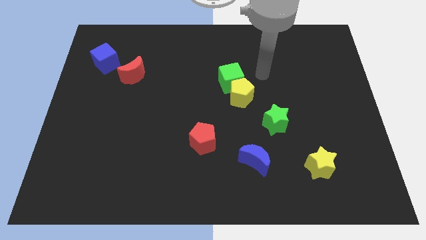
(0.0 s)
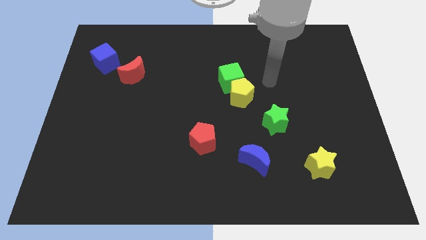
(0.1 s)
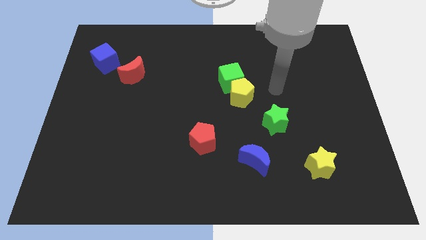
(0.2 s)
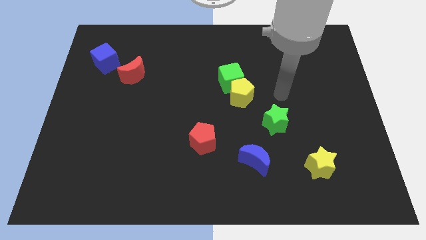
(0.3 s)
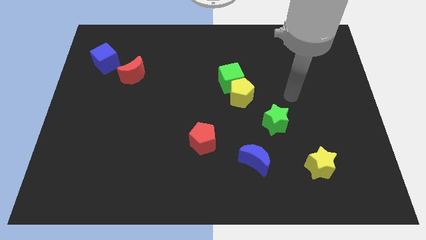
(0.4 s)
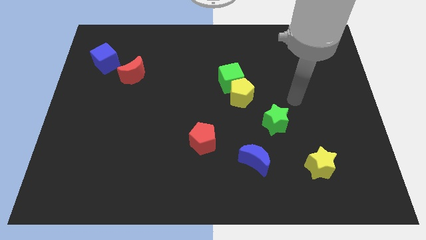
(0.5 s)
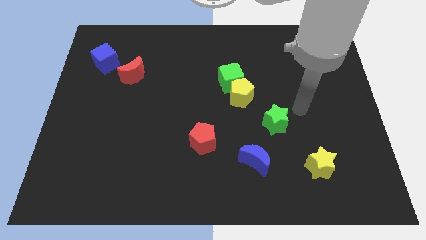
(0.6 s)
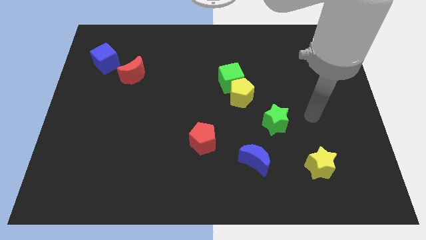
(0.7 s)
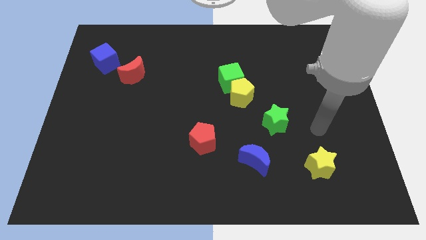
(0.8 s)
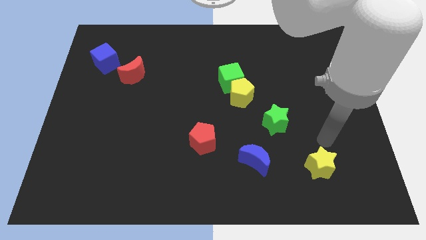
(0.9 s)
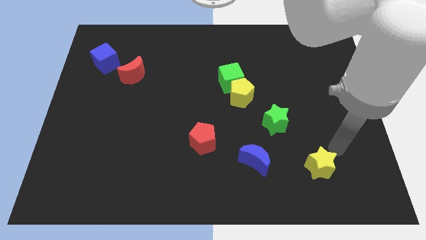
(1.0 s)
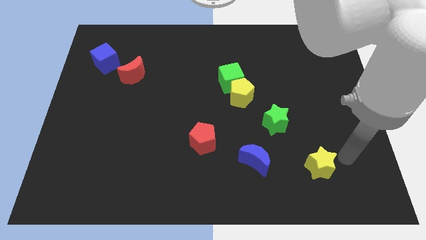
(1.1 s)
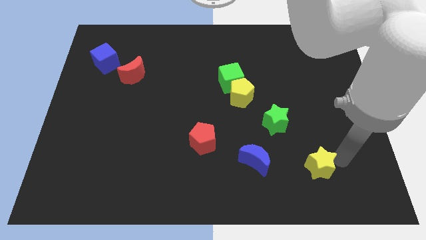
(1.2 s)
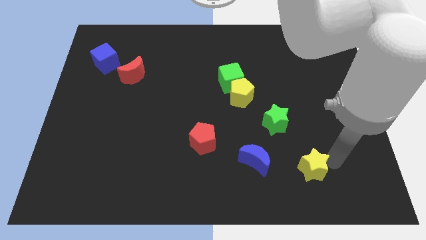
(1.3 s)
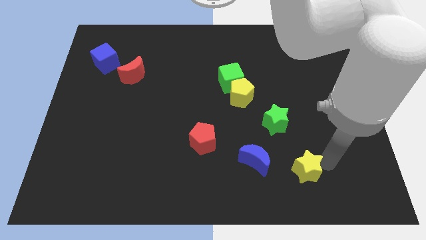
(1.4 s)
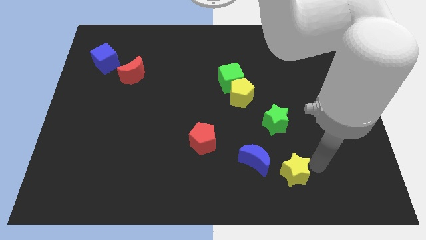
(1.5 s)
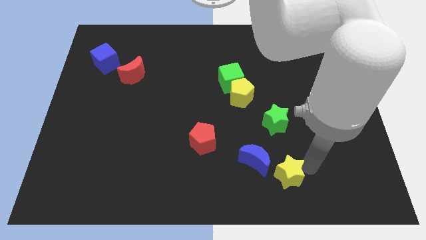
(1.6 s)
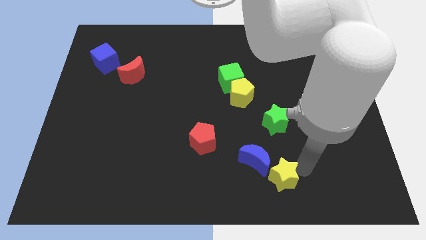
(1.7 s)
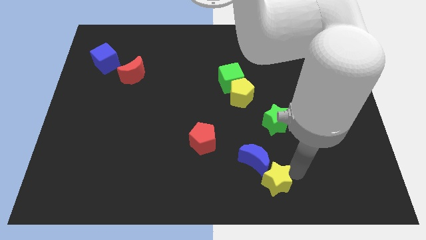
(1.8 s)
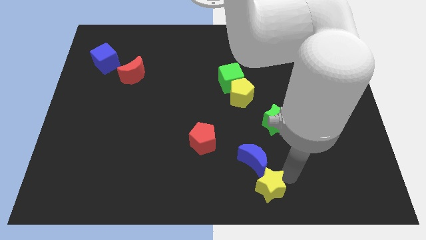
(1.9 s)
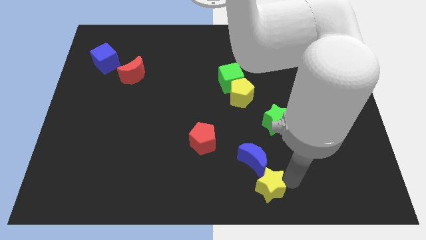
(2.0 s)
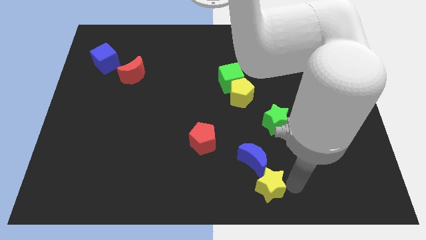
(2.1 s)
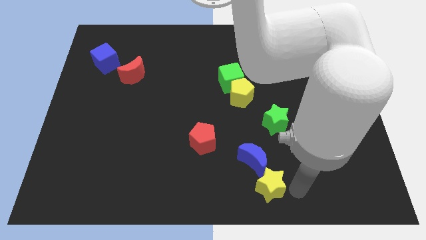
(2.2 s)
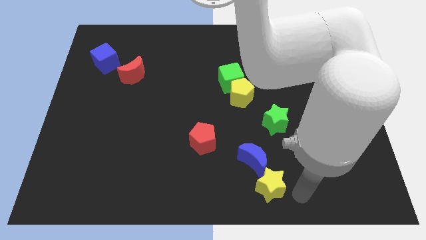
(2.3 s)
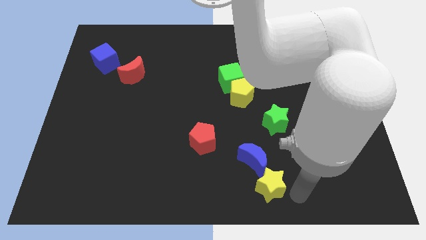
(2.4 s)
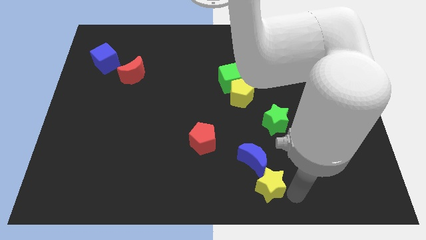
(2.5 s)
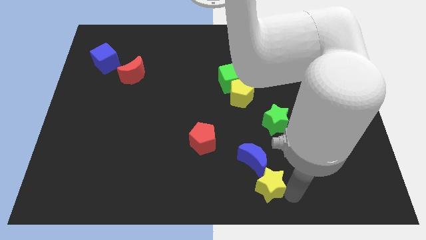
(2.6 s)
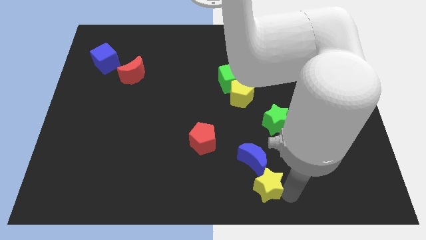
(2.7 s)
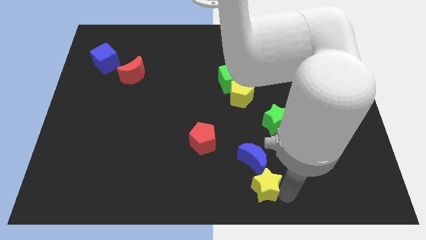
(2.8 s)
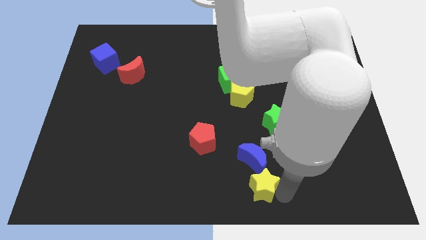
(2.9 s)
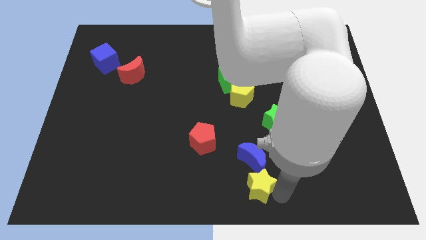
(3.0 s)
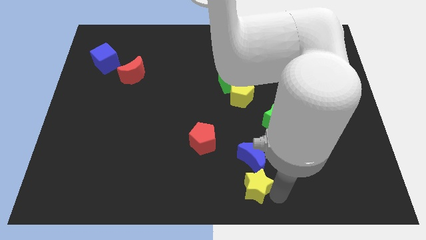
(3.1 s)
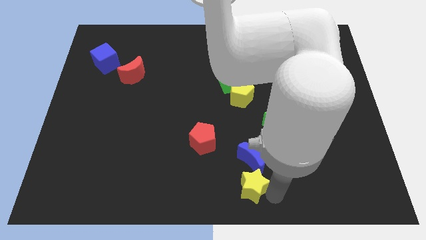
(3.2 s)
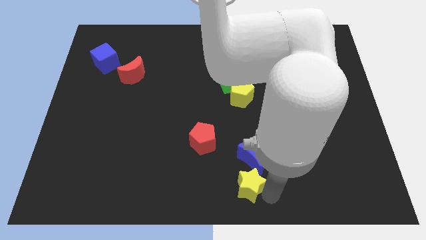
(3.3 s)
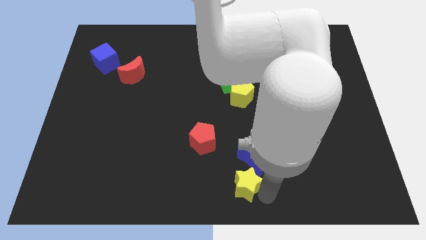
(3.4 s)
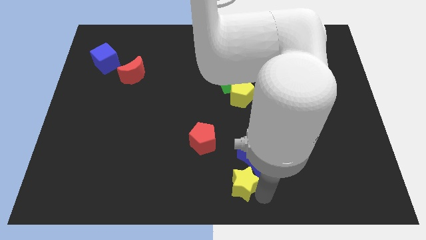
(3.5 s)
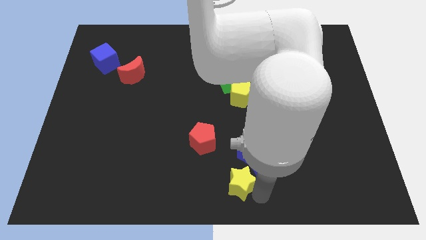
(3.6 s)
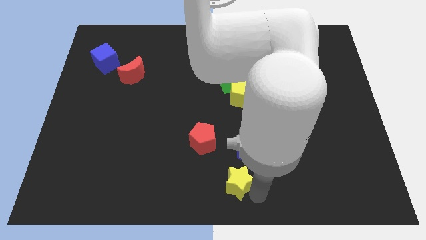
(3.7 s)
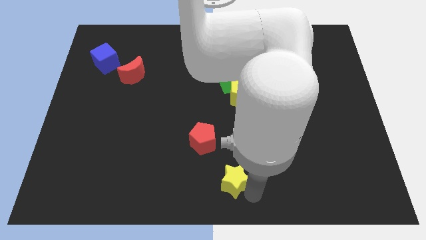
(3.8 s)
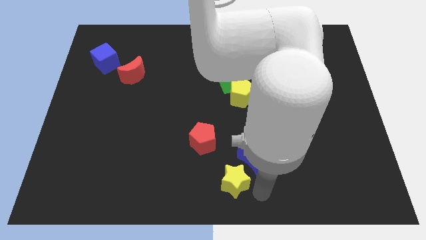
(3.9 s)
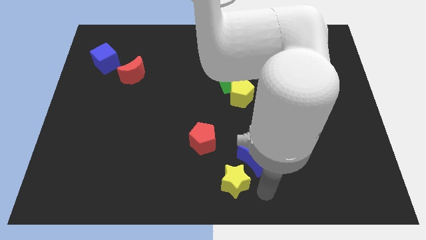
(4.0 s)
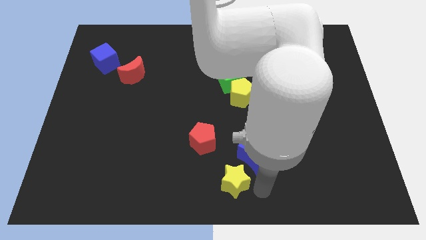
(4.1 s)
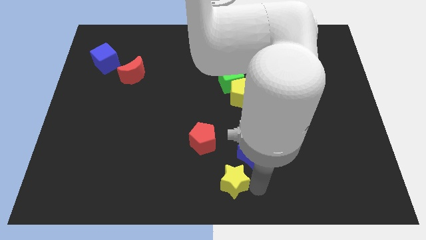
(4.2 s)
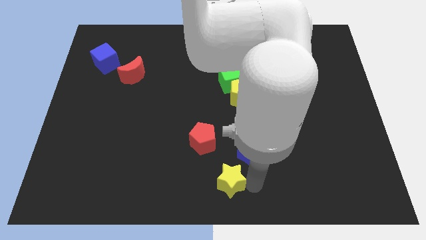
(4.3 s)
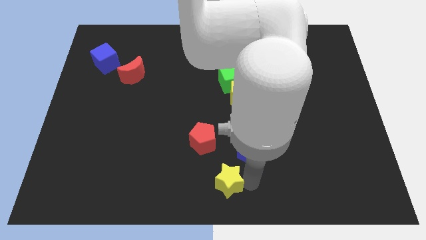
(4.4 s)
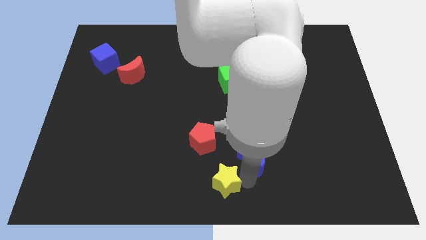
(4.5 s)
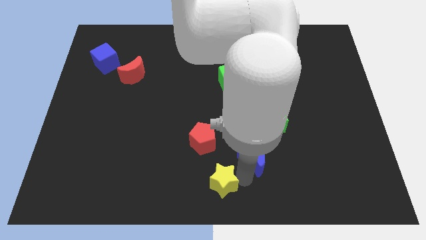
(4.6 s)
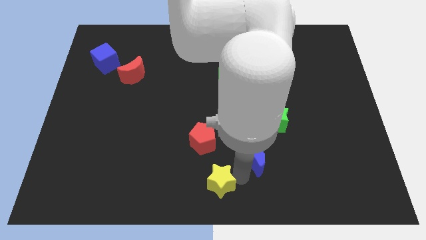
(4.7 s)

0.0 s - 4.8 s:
slide the yellow star to the left

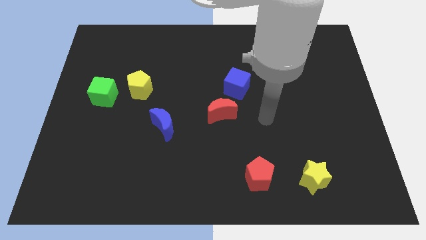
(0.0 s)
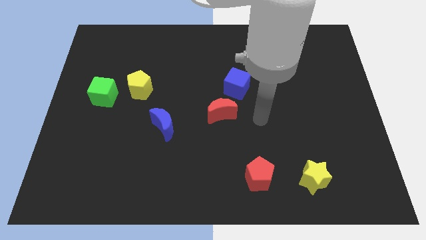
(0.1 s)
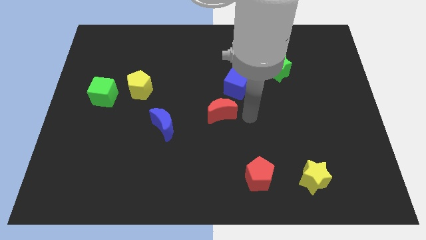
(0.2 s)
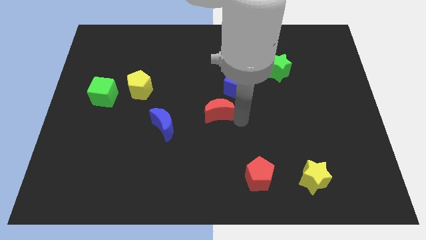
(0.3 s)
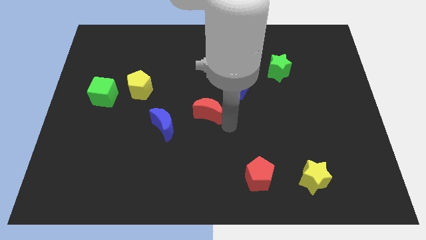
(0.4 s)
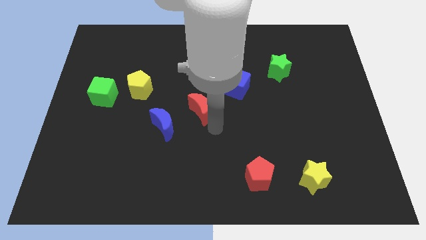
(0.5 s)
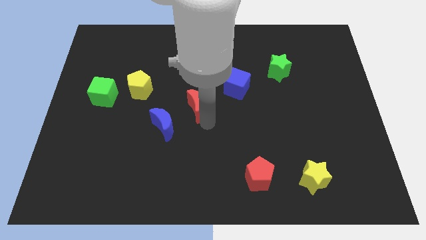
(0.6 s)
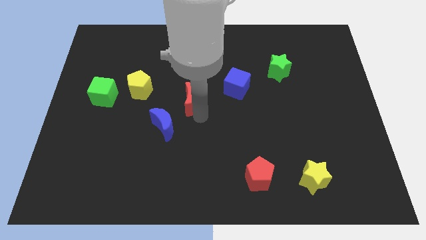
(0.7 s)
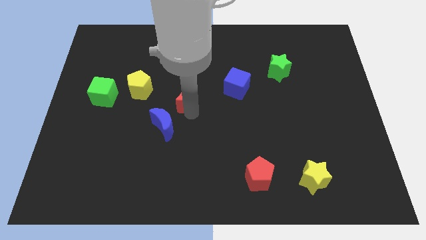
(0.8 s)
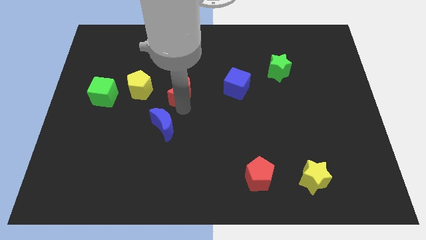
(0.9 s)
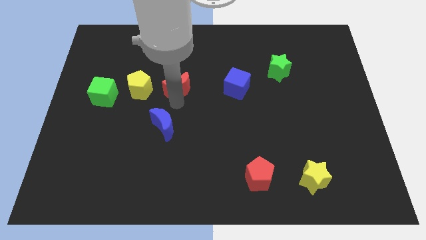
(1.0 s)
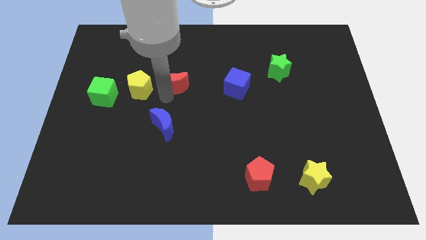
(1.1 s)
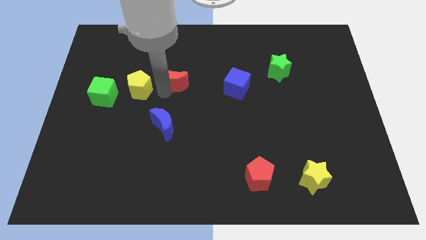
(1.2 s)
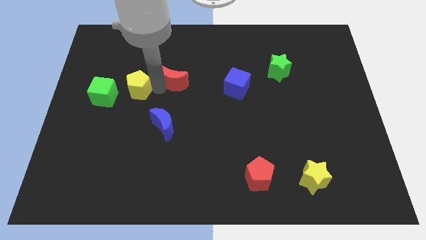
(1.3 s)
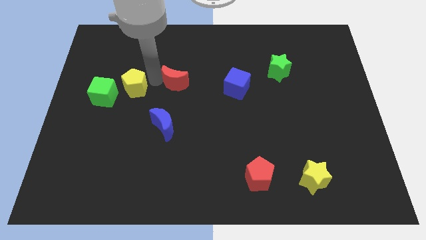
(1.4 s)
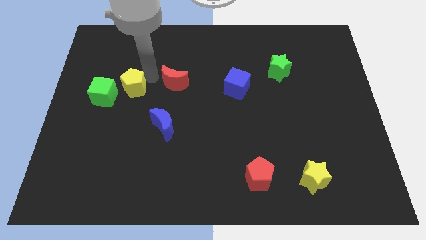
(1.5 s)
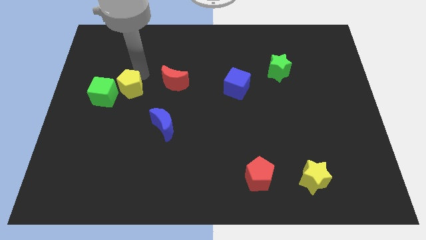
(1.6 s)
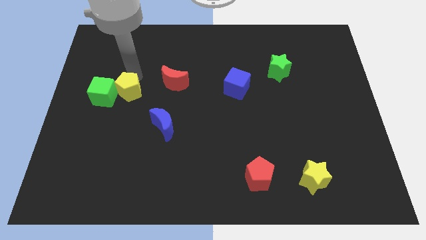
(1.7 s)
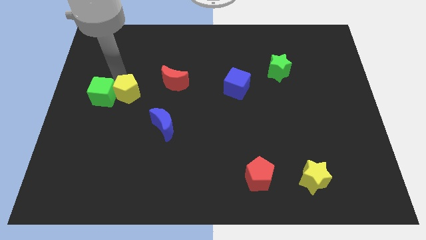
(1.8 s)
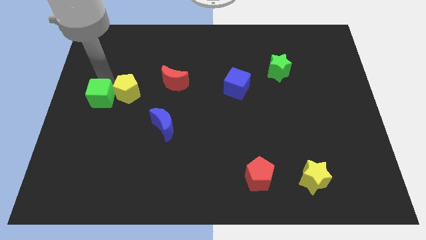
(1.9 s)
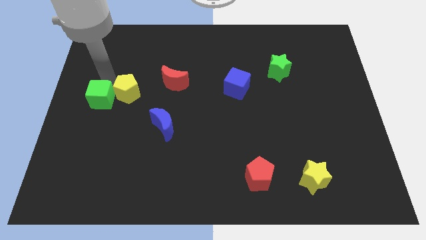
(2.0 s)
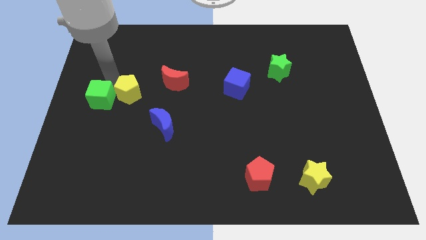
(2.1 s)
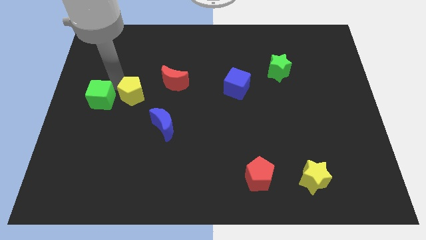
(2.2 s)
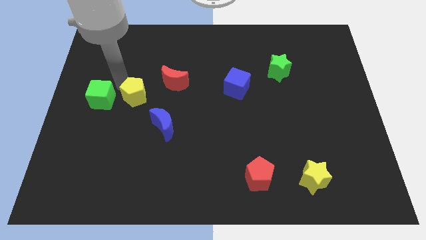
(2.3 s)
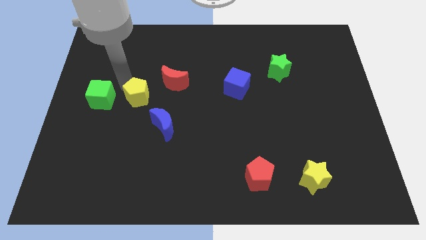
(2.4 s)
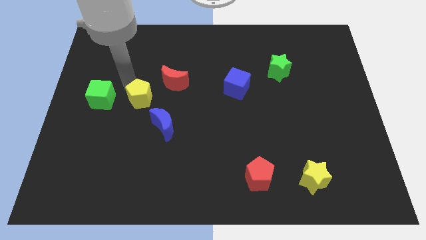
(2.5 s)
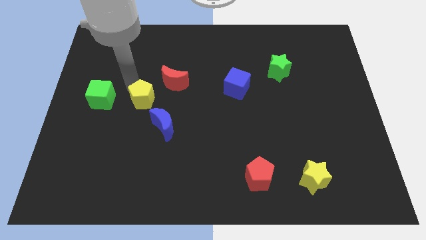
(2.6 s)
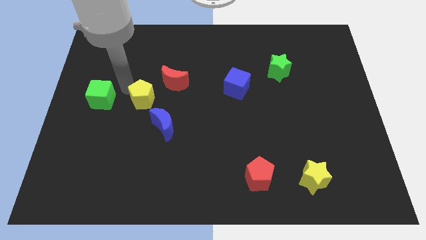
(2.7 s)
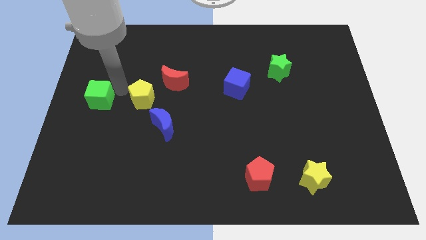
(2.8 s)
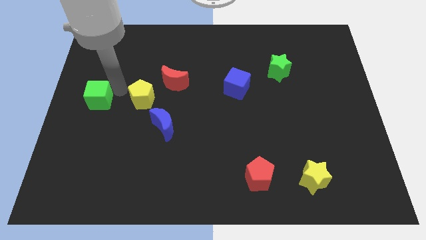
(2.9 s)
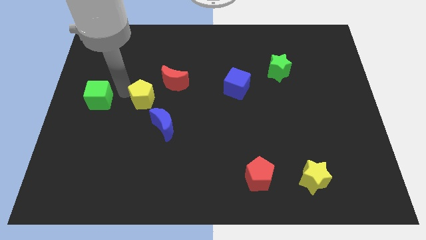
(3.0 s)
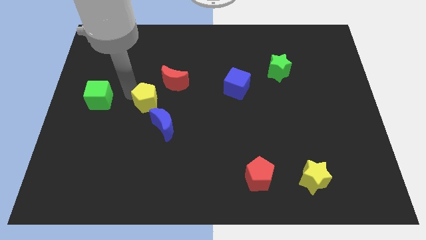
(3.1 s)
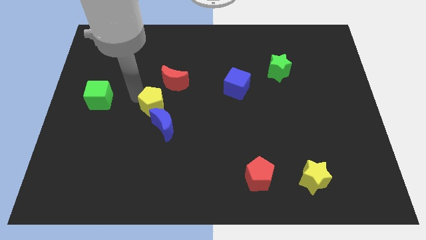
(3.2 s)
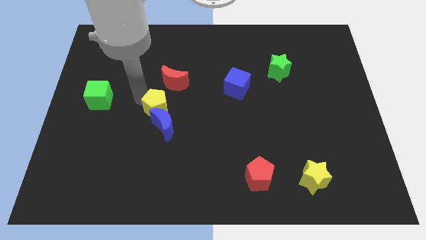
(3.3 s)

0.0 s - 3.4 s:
slide the yellow pentagon a bit downwards and then right

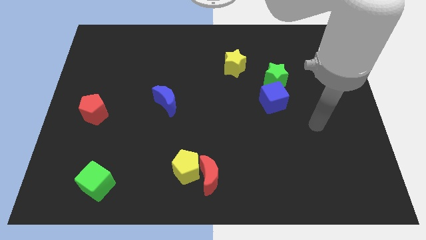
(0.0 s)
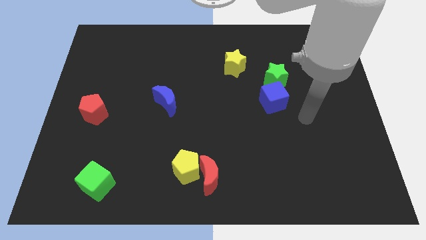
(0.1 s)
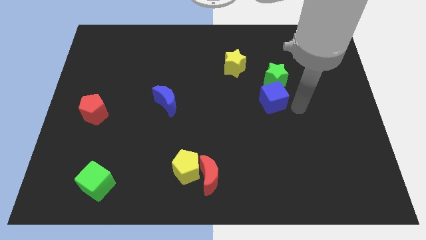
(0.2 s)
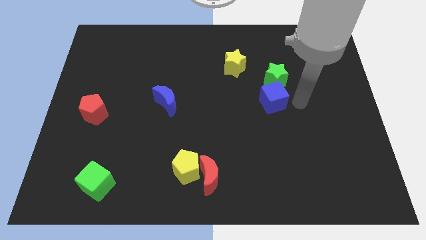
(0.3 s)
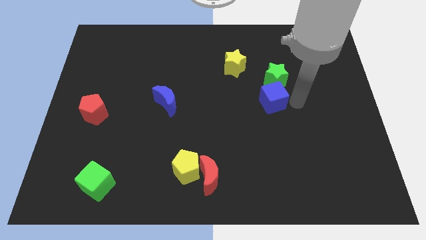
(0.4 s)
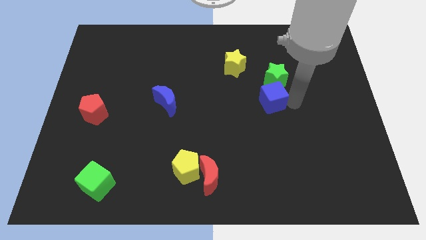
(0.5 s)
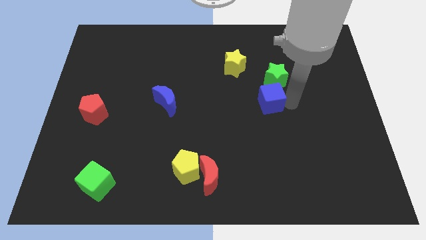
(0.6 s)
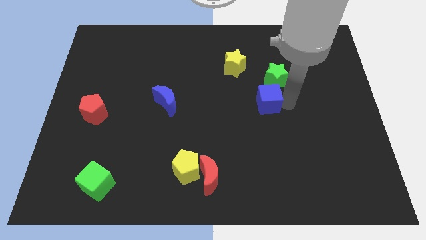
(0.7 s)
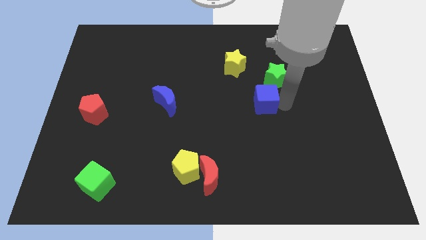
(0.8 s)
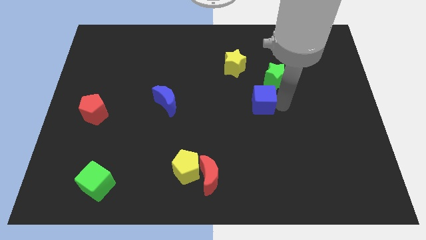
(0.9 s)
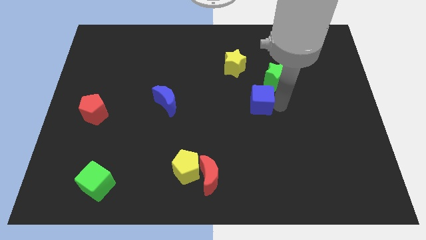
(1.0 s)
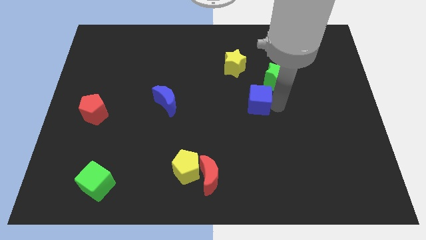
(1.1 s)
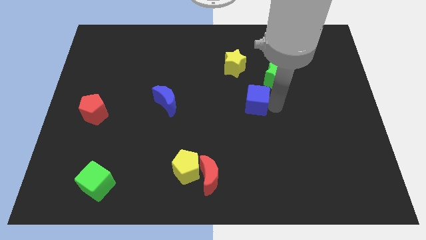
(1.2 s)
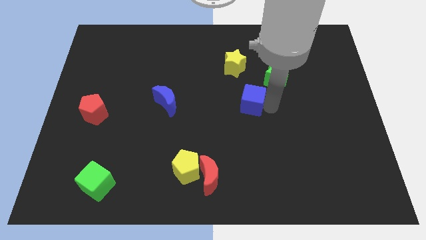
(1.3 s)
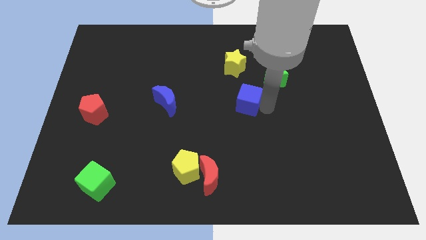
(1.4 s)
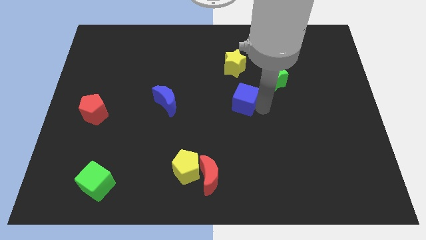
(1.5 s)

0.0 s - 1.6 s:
slightly slide the blue cube to the left
